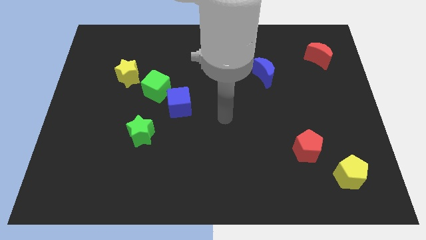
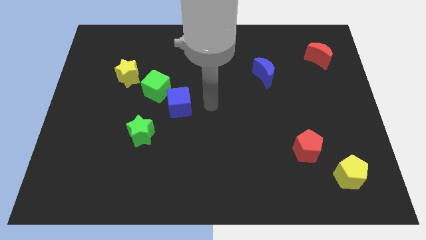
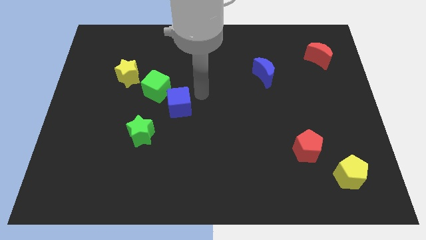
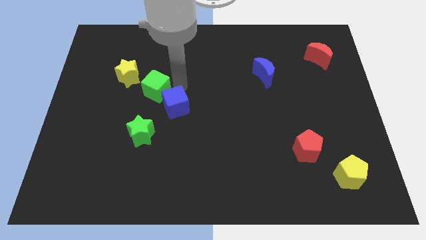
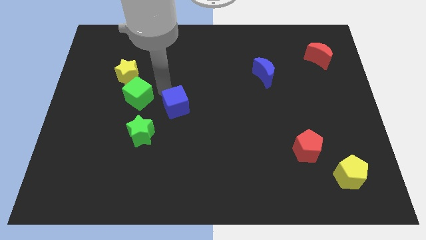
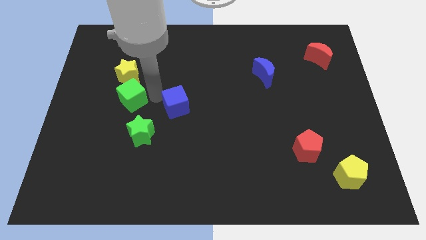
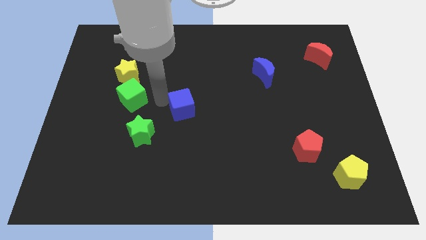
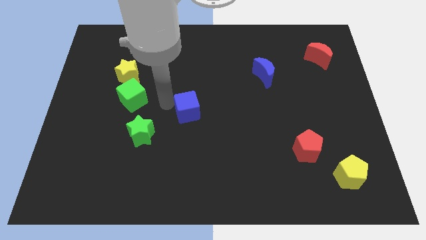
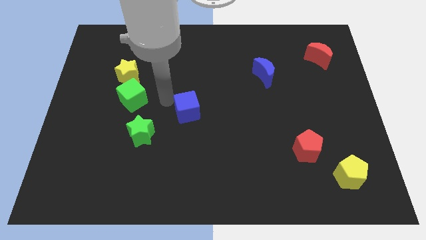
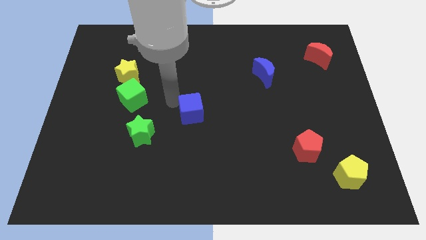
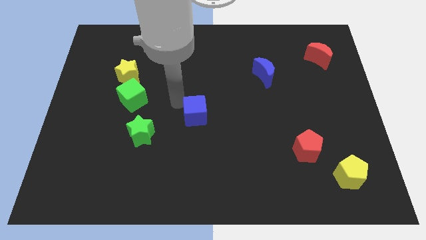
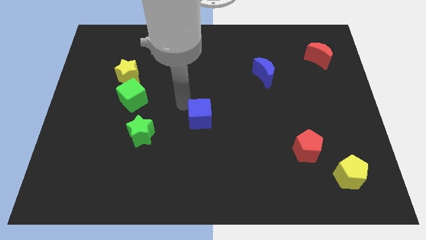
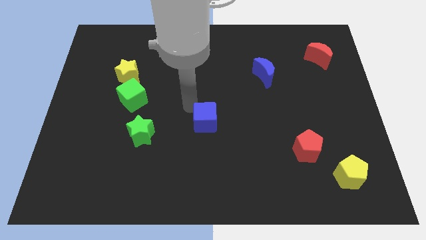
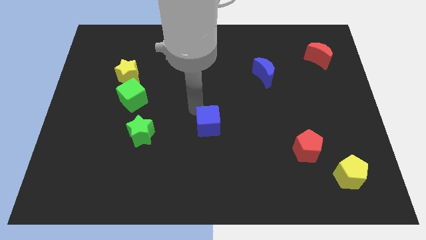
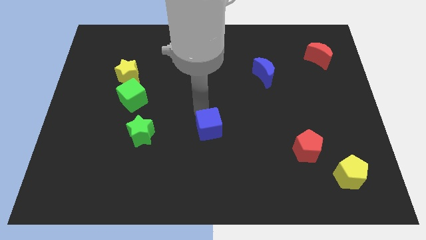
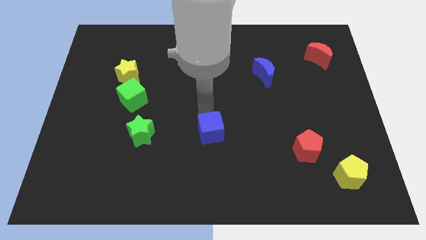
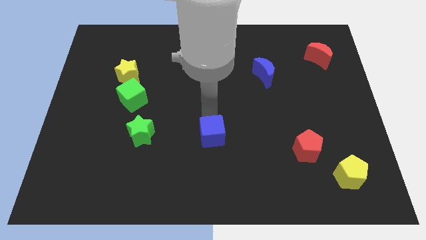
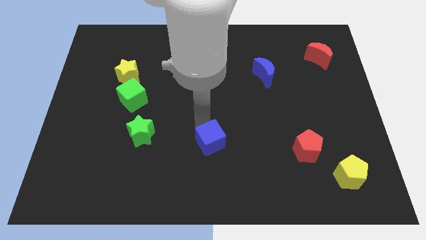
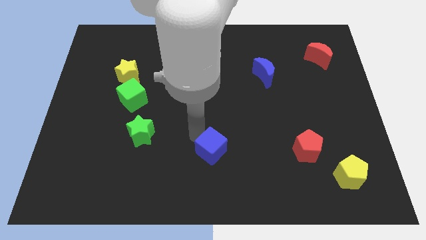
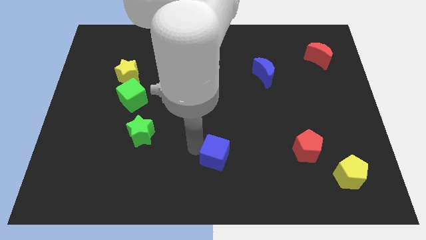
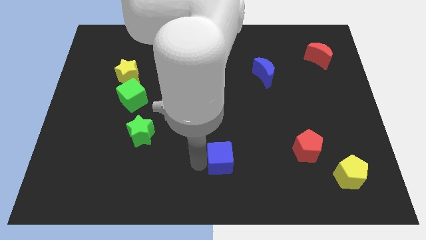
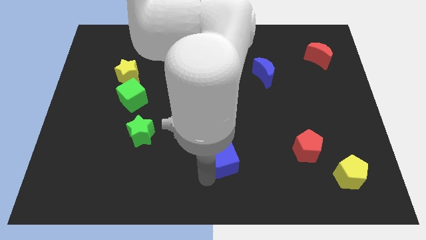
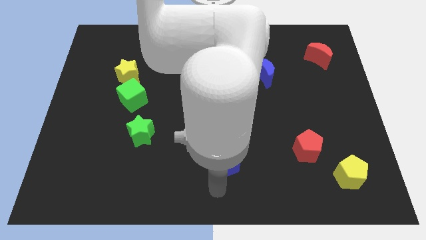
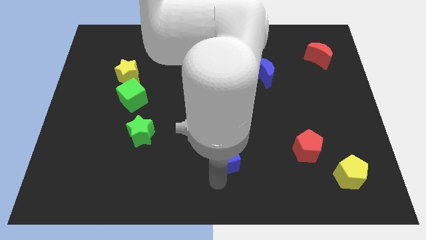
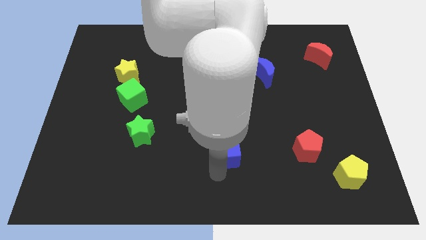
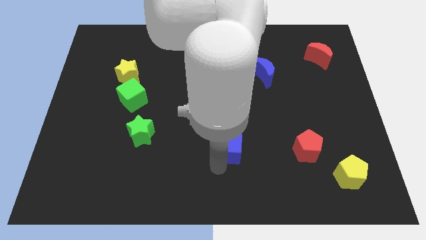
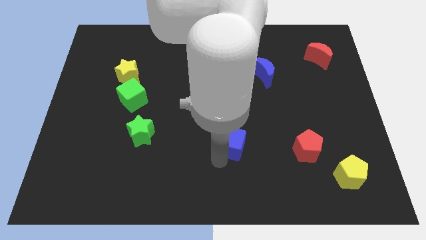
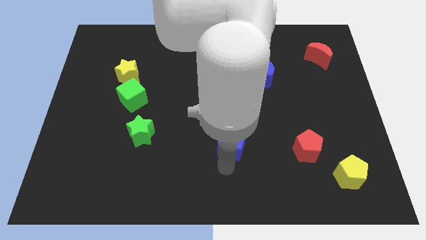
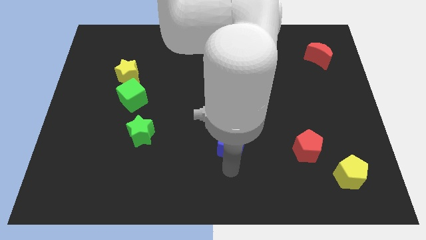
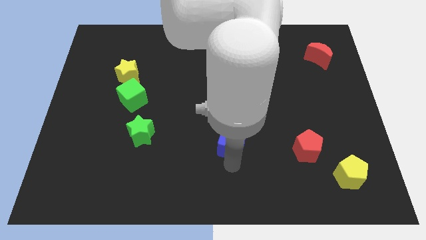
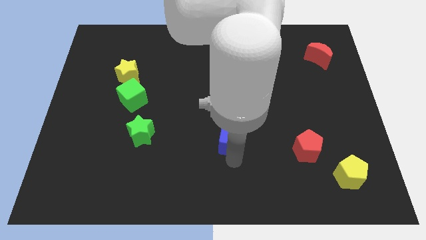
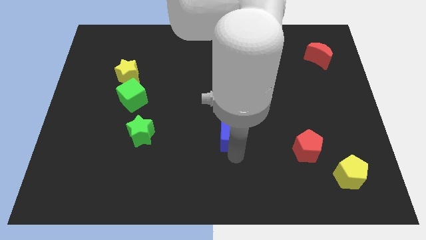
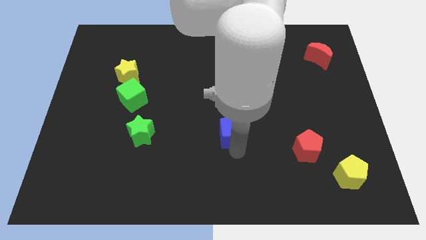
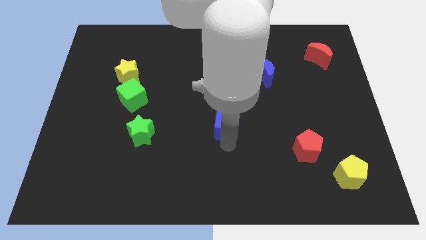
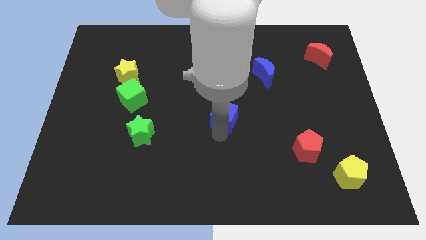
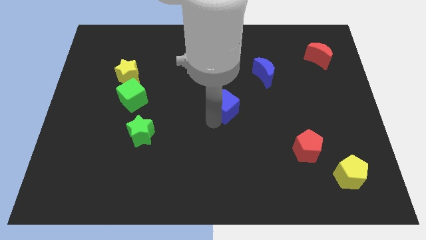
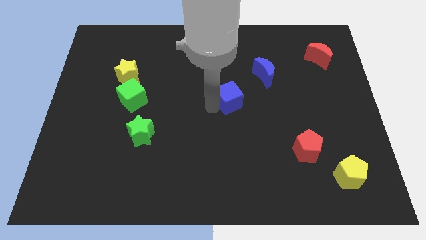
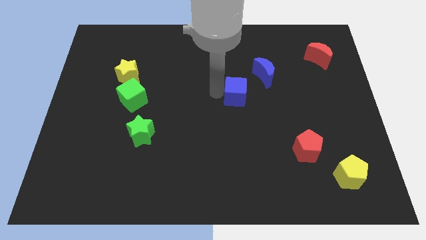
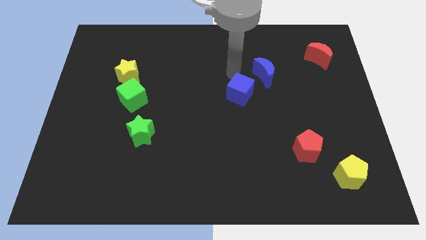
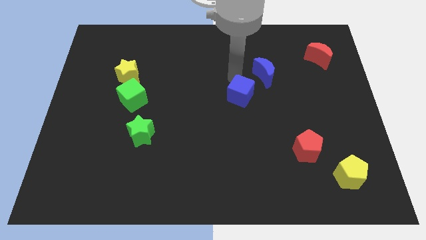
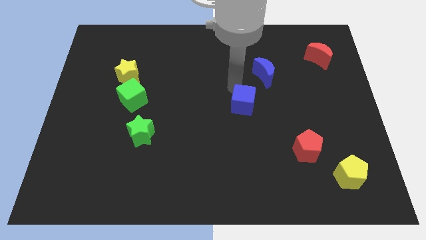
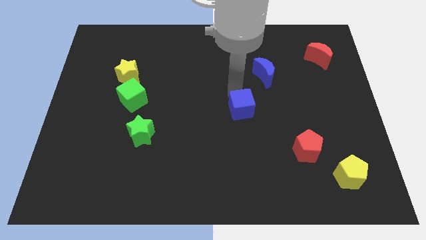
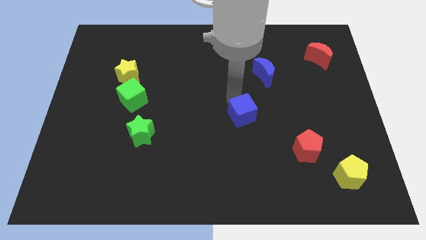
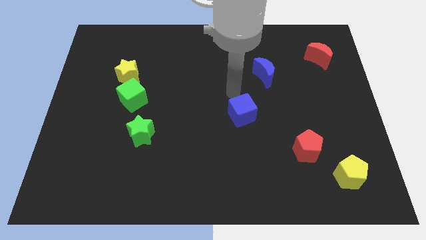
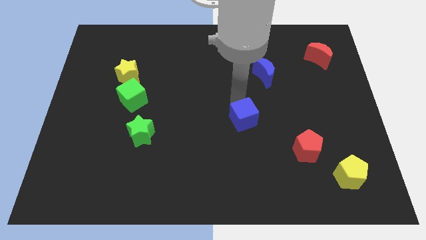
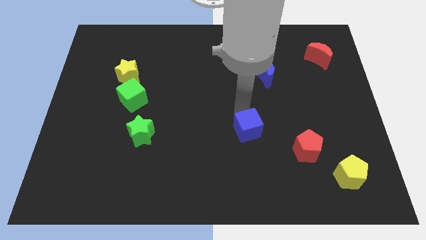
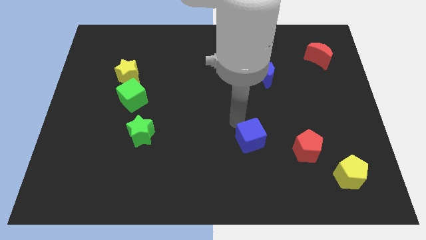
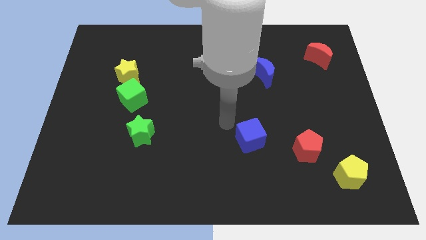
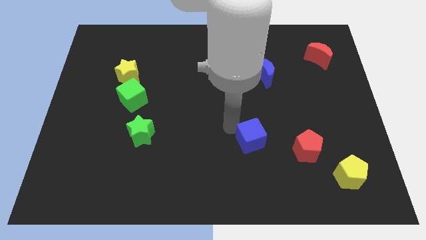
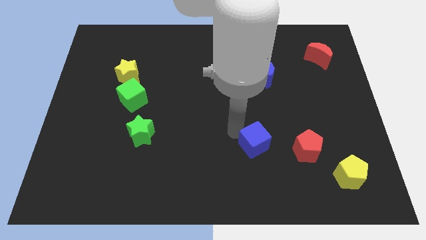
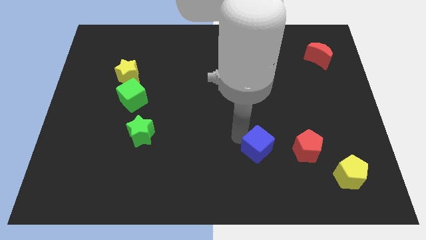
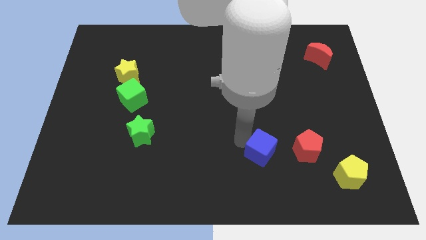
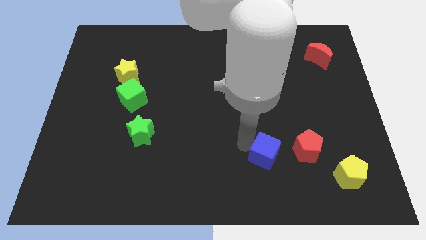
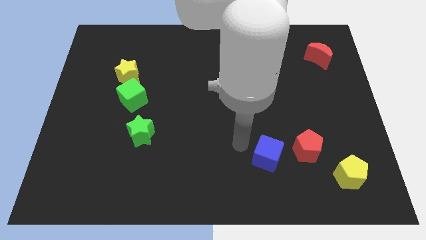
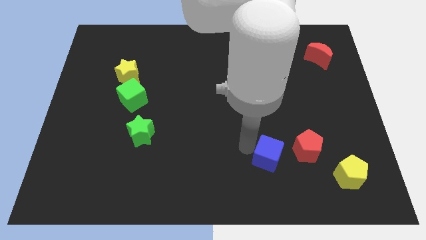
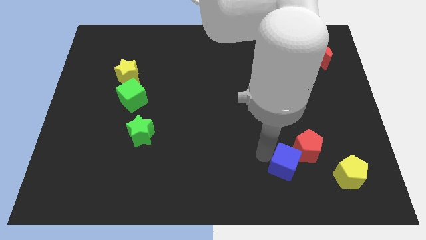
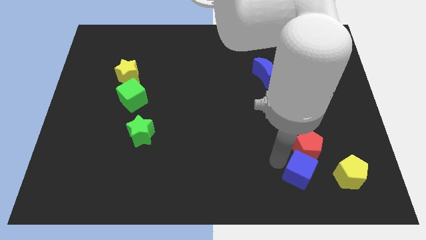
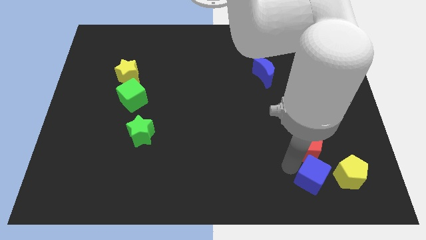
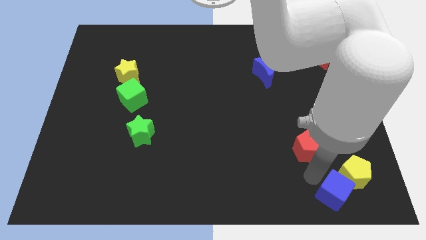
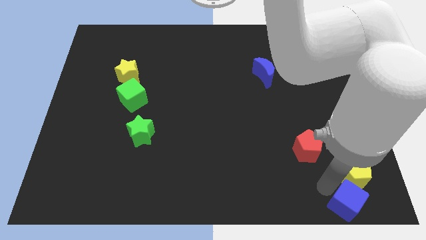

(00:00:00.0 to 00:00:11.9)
move the blue cube to the lower right corner

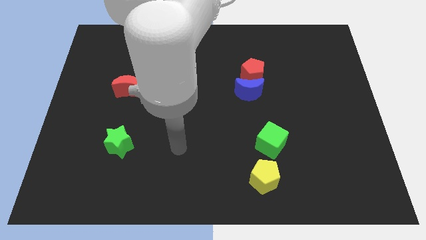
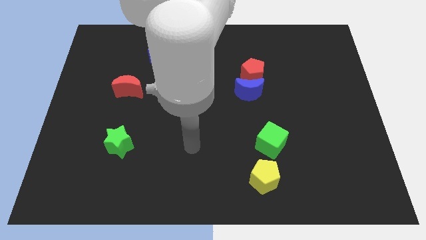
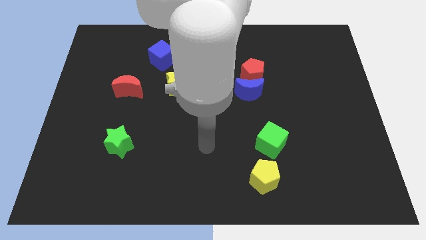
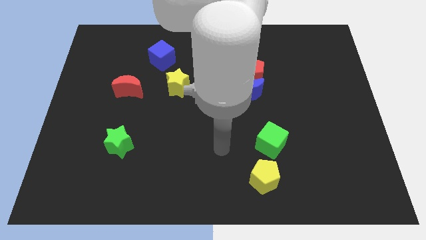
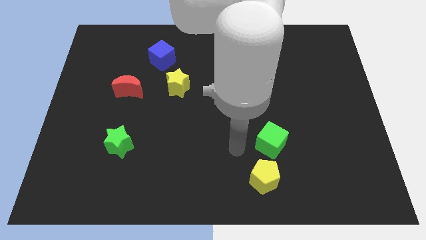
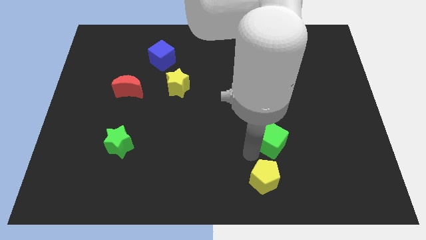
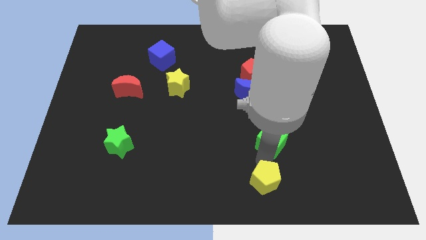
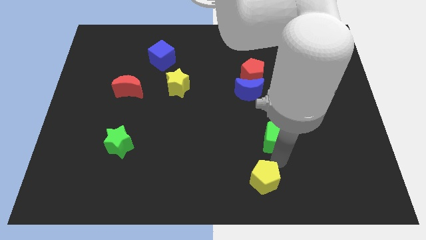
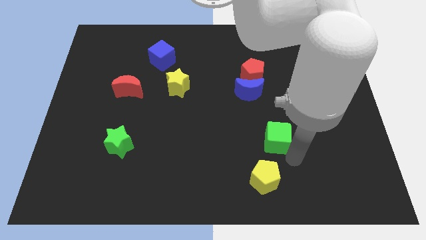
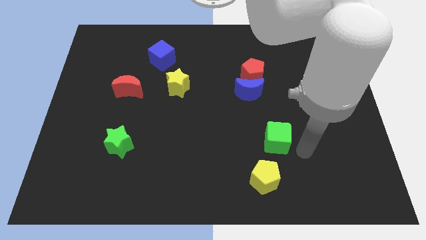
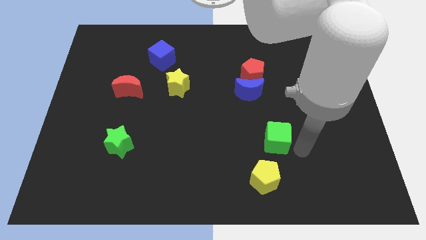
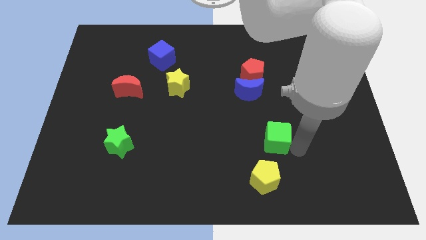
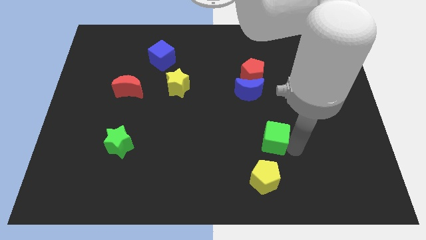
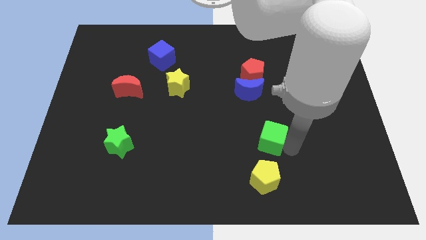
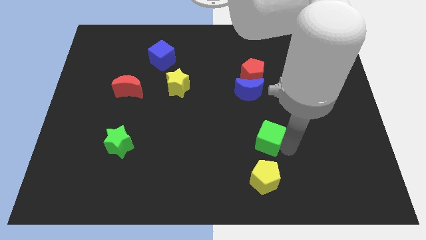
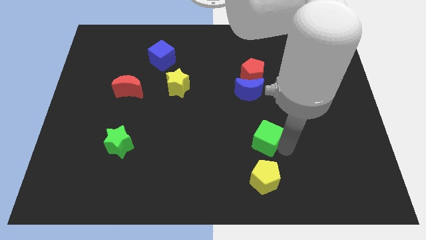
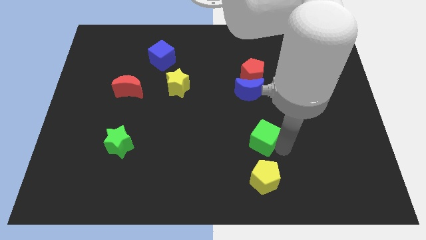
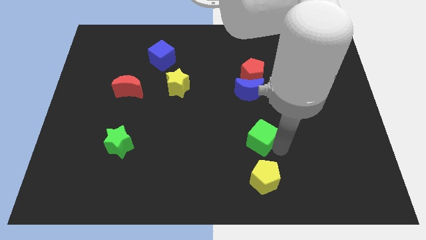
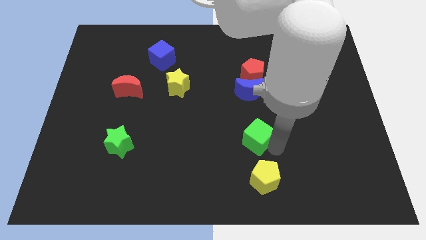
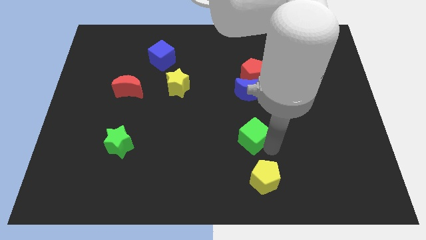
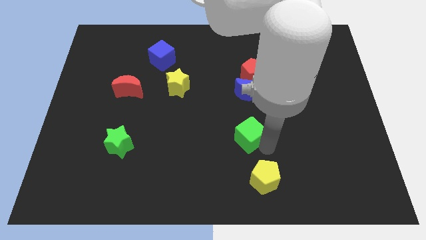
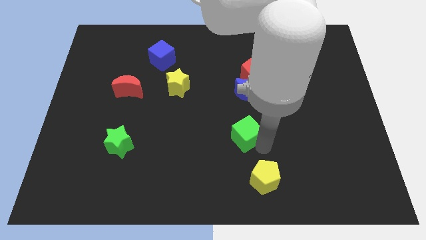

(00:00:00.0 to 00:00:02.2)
move the green cube to the middle of the board
